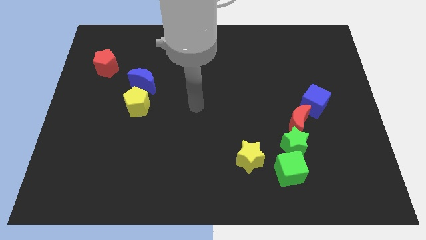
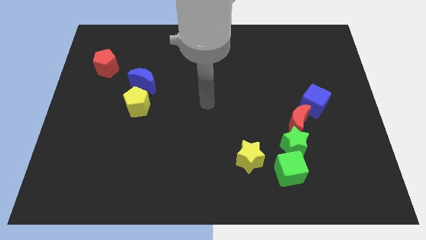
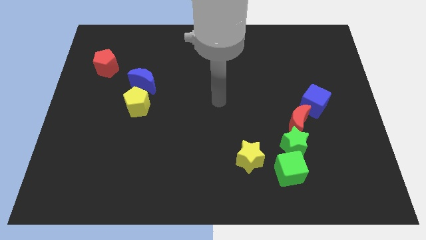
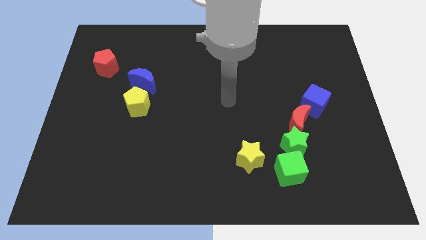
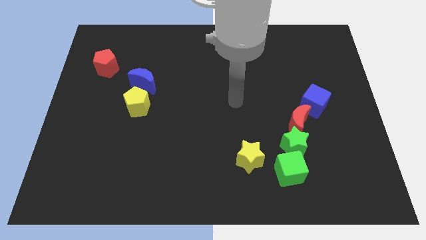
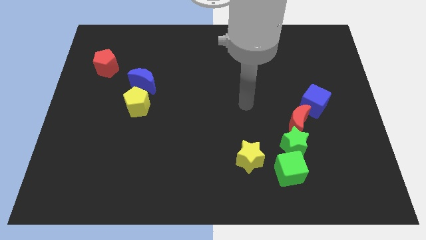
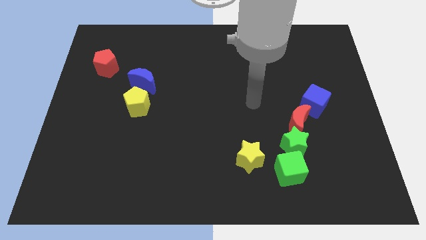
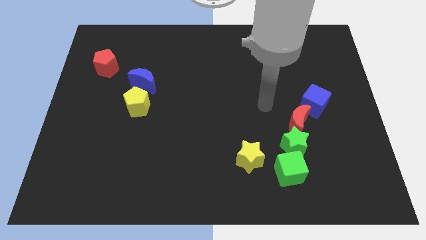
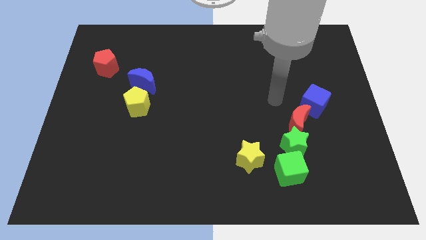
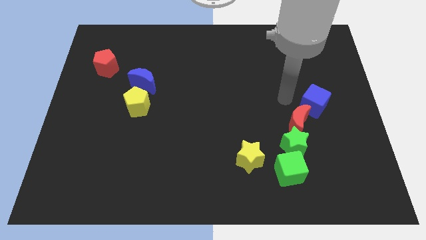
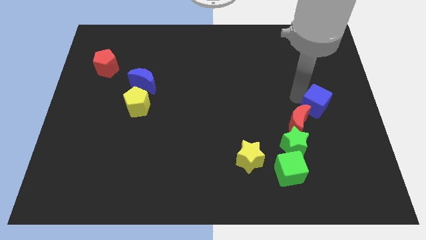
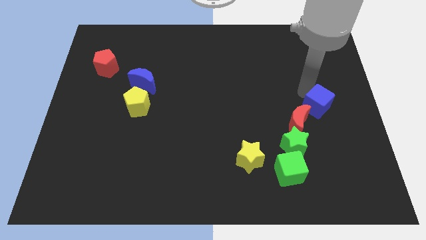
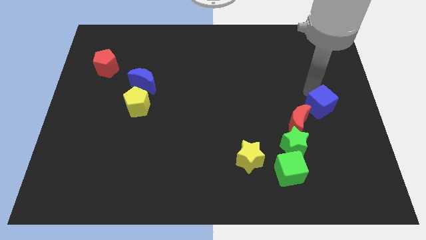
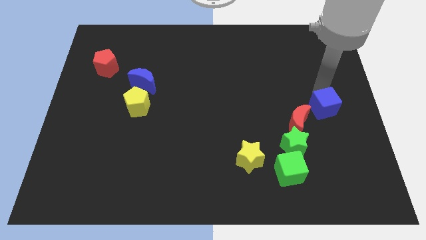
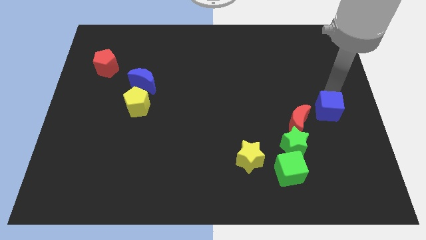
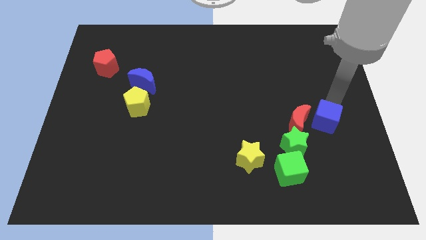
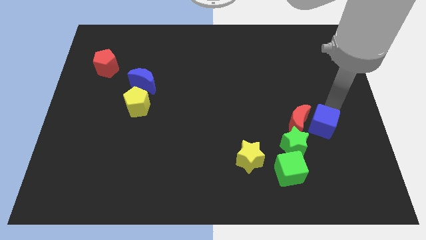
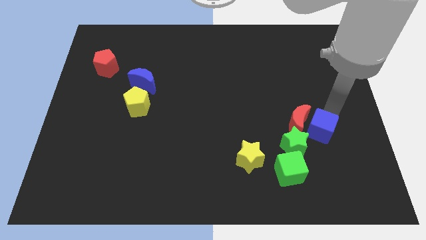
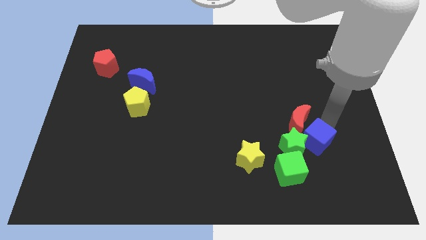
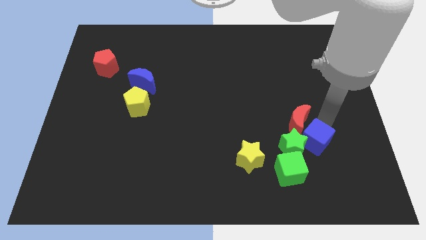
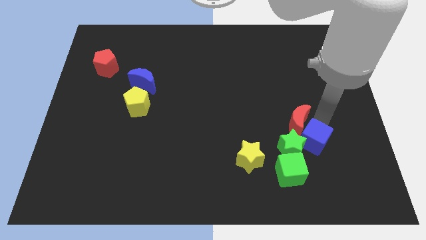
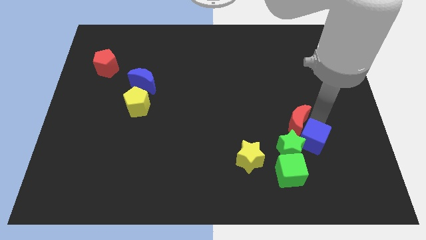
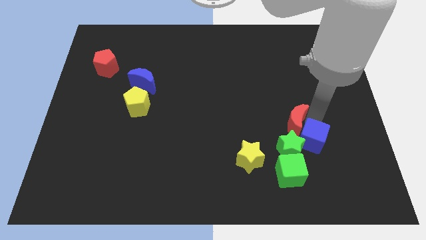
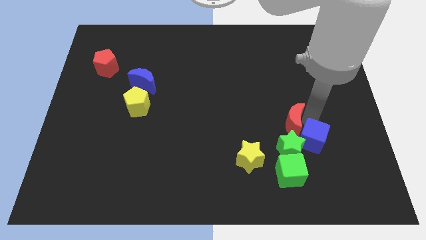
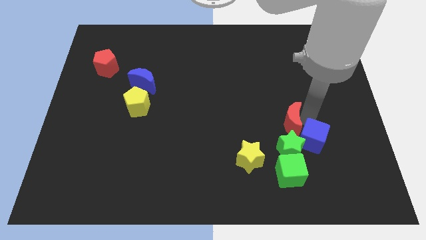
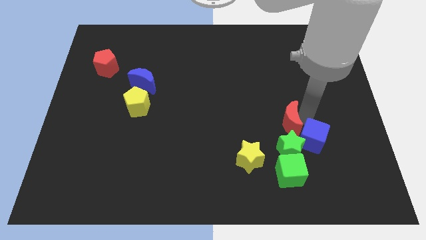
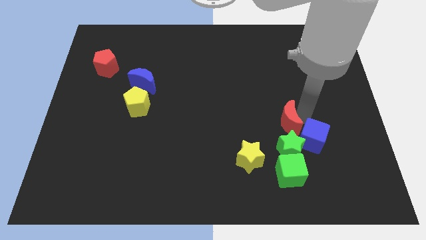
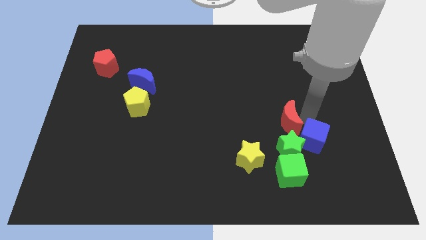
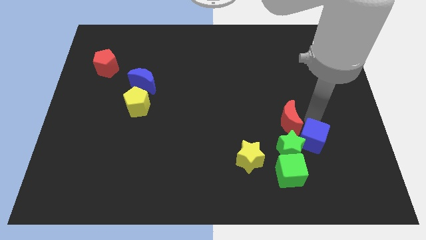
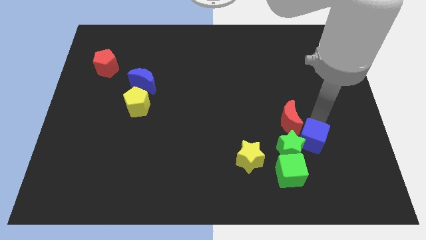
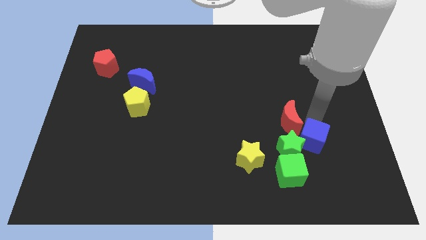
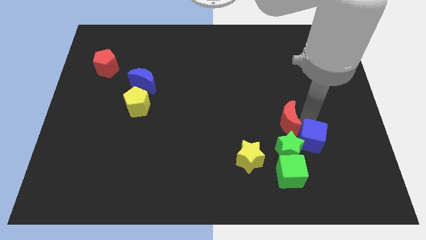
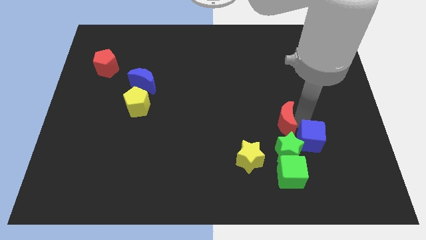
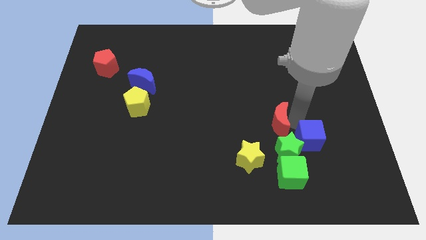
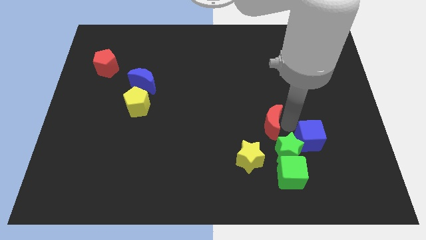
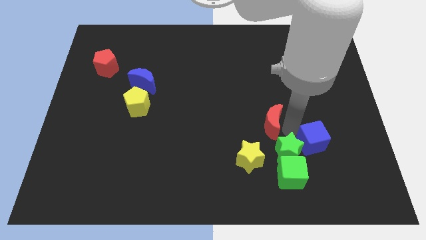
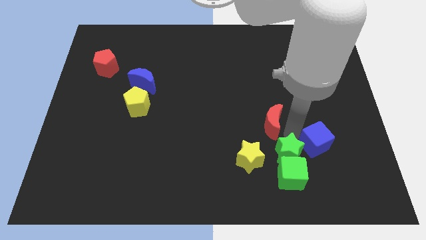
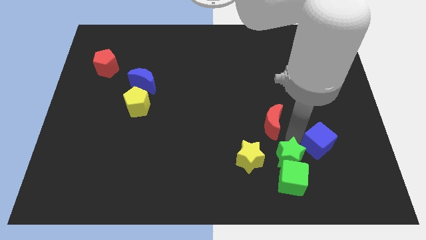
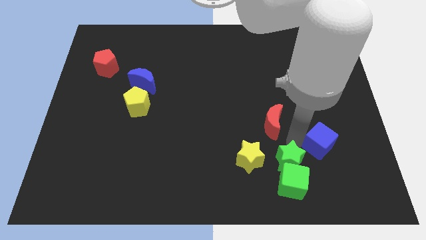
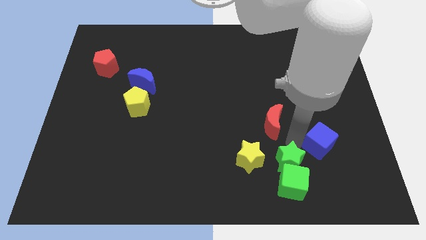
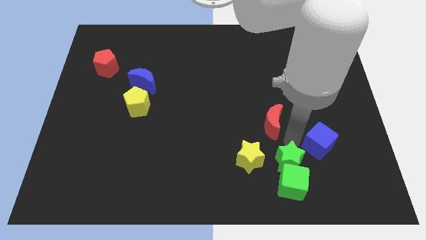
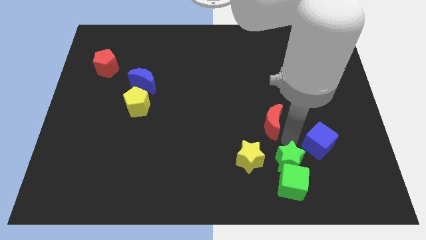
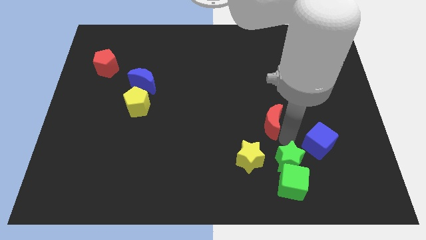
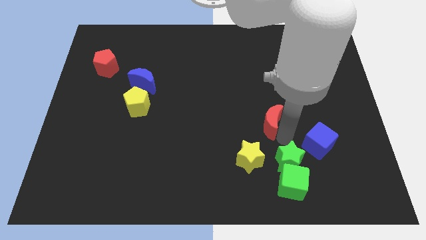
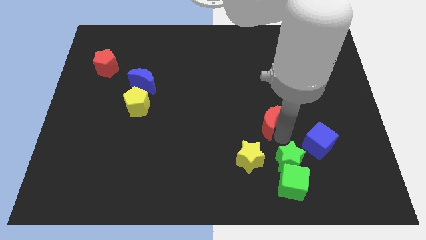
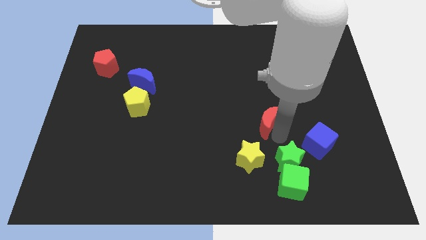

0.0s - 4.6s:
move the red moon away from the green star and blue cube

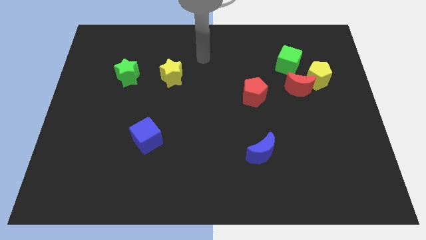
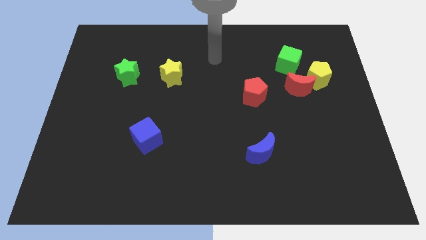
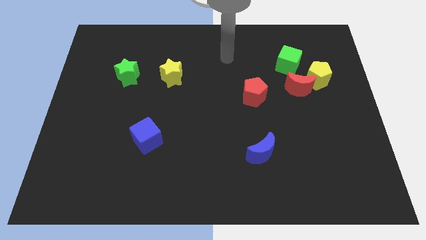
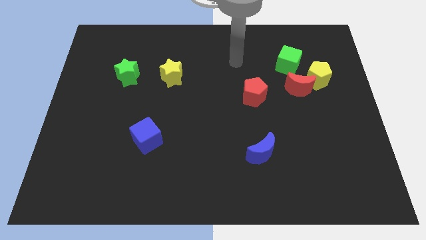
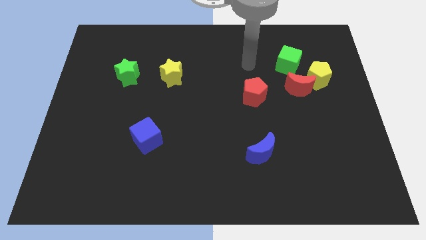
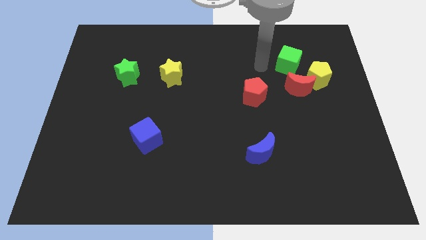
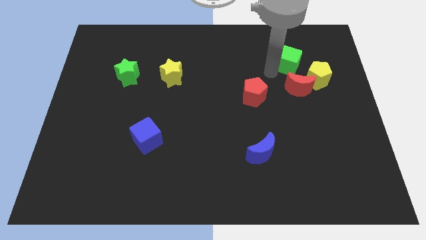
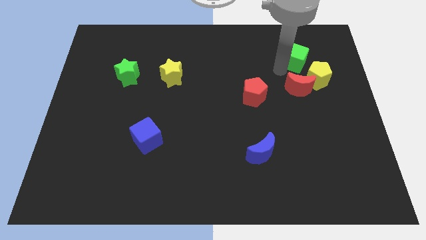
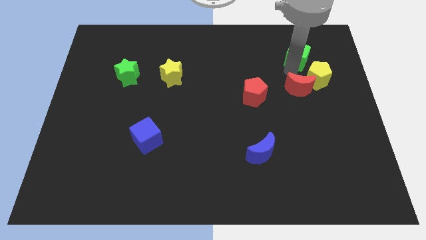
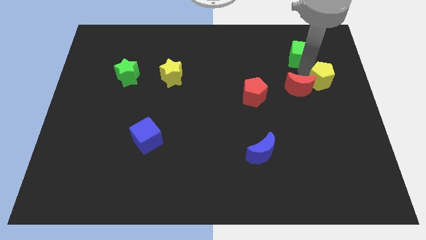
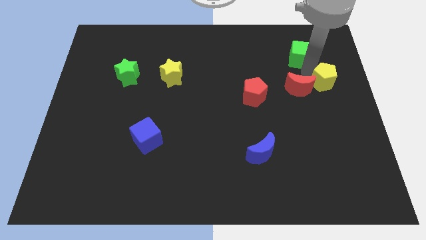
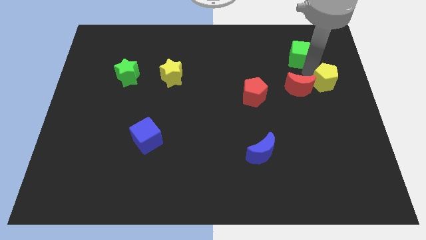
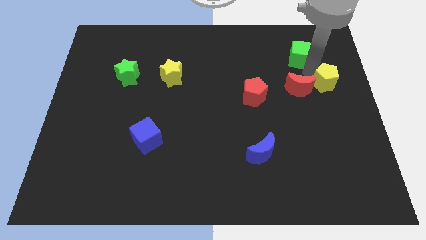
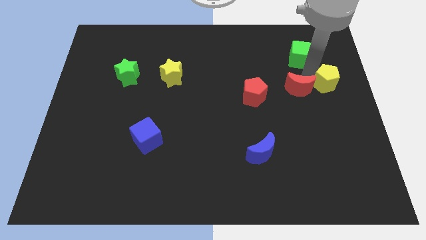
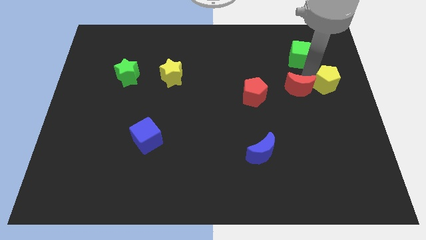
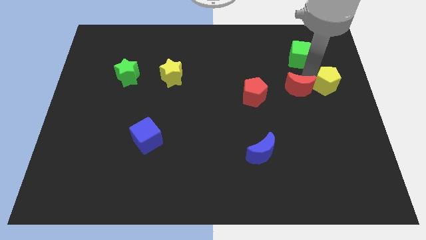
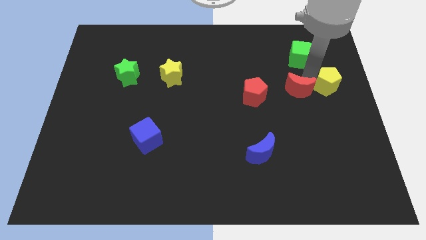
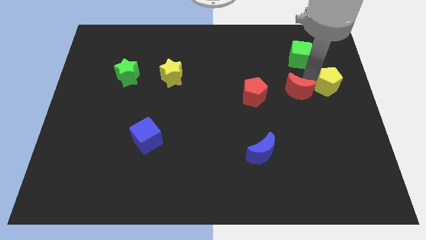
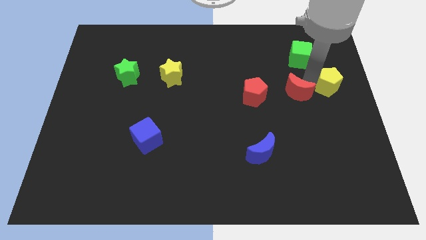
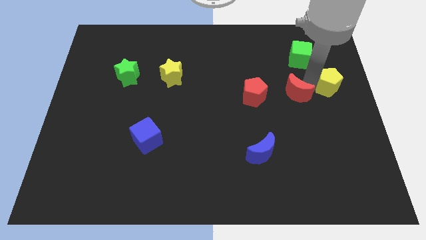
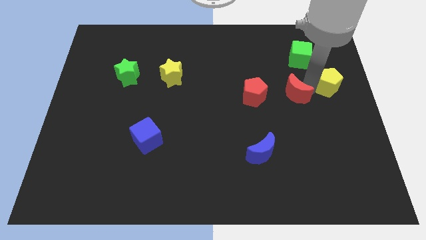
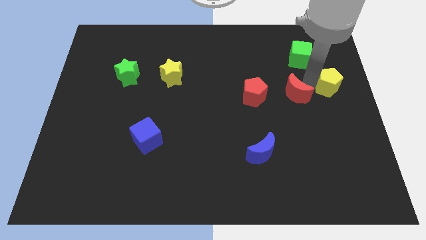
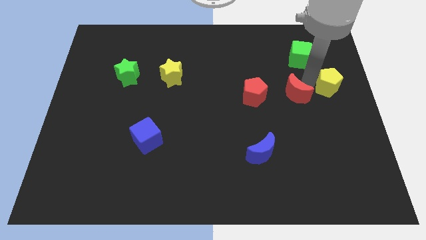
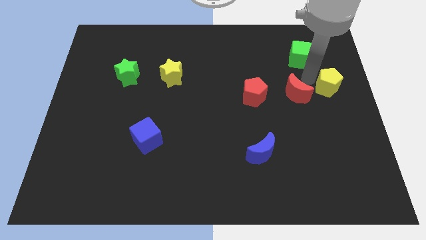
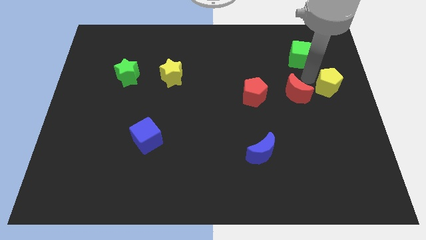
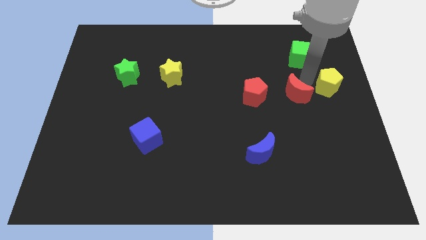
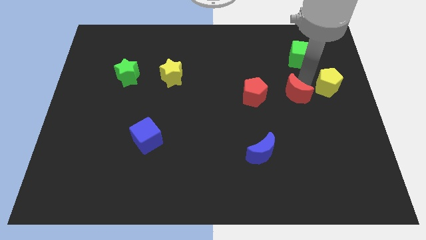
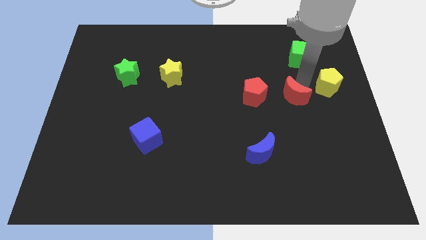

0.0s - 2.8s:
separate the red moon from the yellow pentagon and green cube

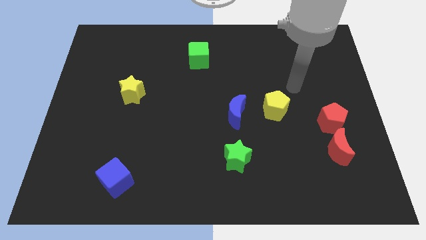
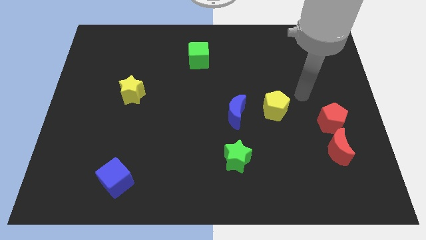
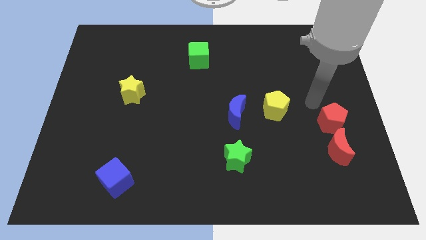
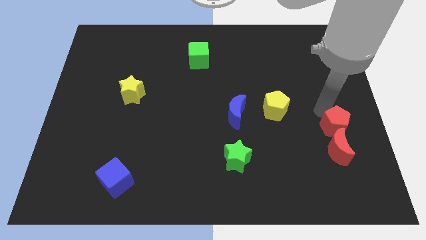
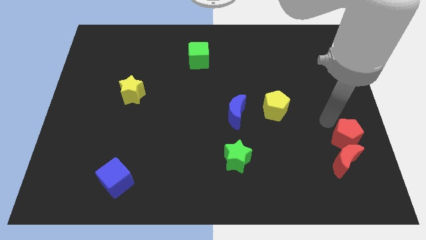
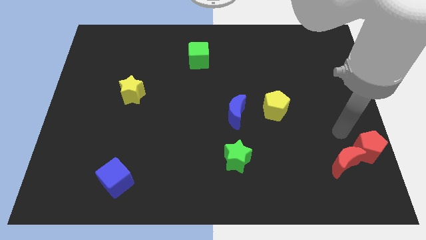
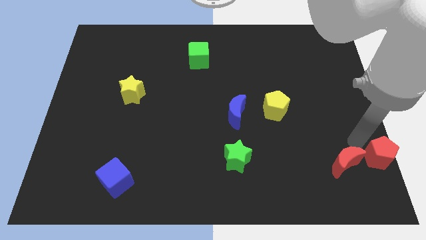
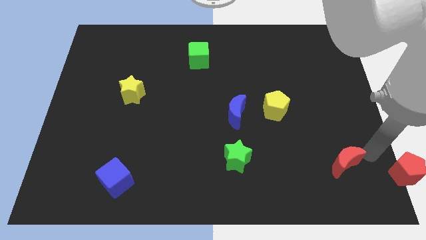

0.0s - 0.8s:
pull the red moon apart from the red pentagon

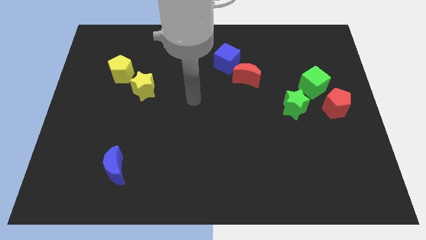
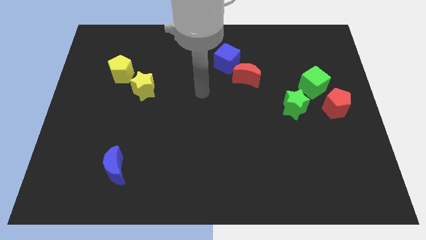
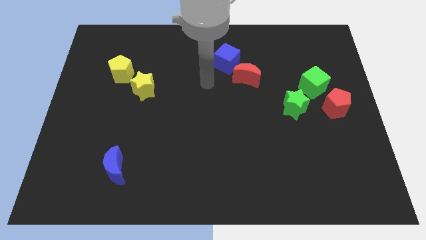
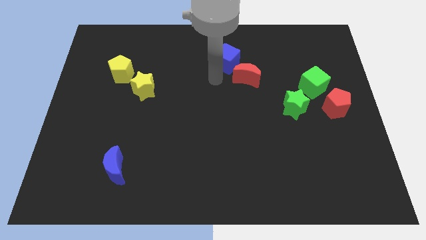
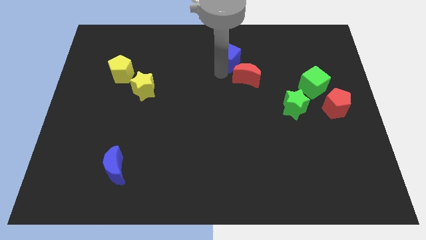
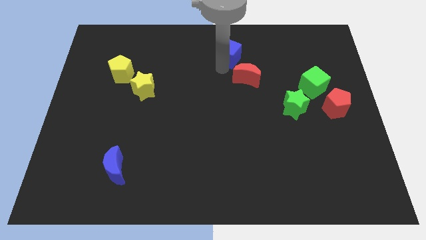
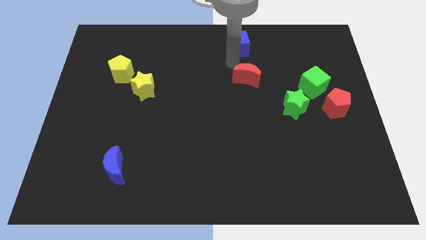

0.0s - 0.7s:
pull the red moon apart from the blue cube

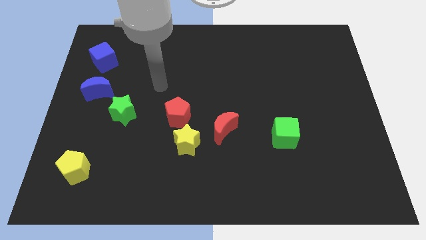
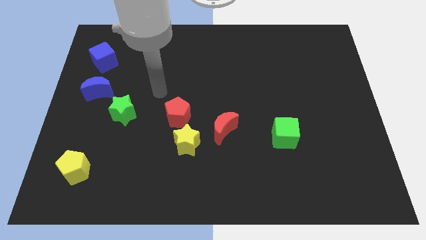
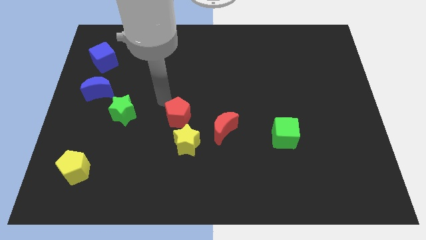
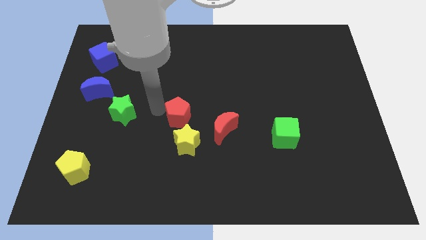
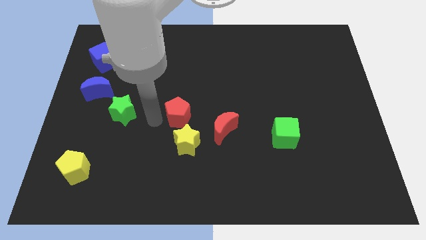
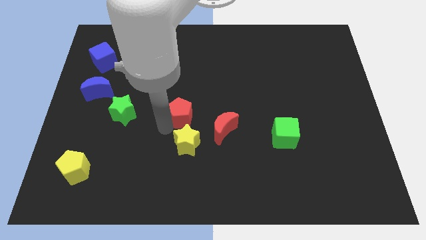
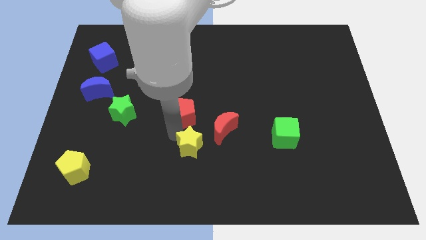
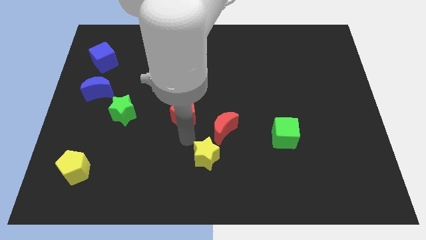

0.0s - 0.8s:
separate the red pentagon from the yellow star
